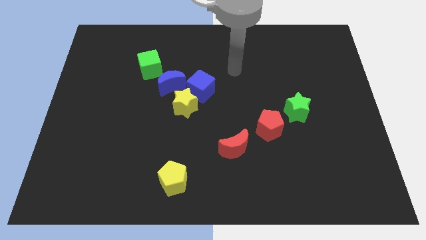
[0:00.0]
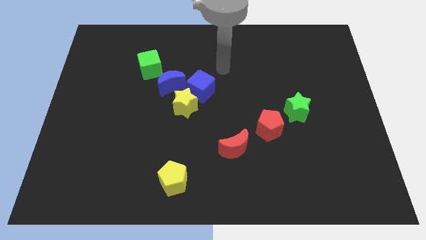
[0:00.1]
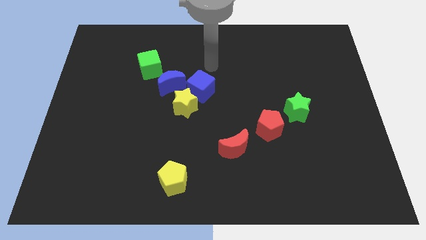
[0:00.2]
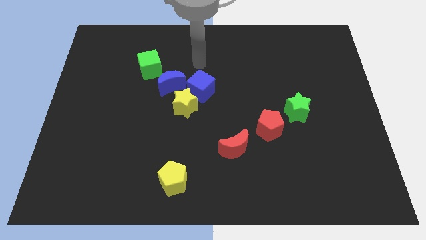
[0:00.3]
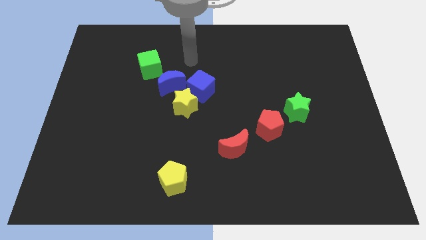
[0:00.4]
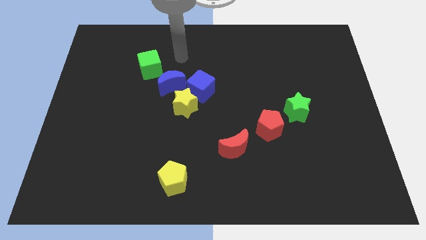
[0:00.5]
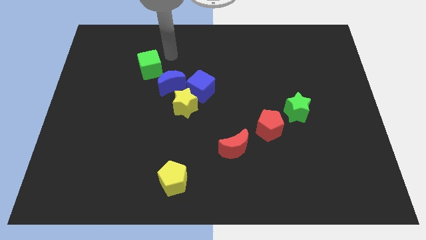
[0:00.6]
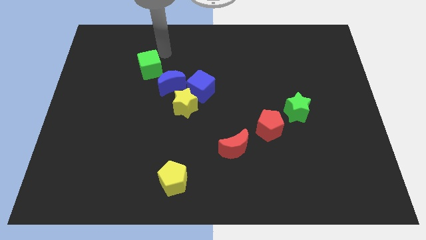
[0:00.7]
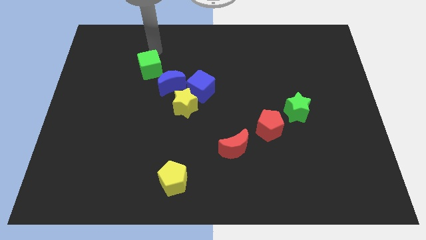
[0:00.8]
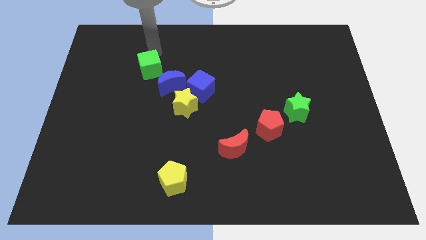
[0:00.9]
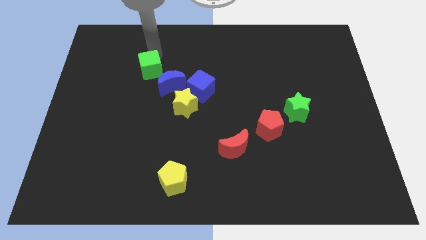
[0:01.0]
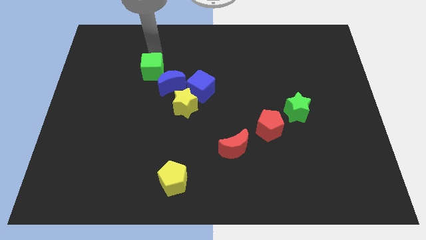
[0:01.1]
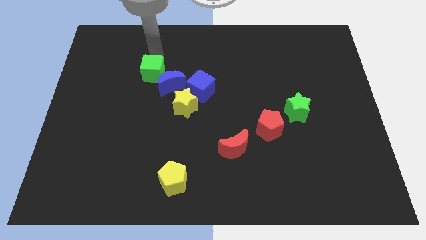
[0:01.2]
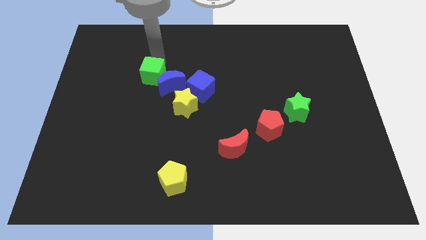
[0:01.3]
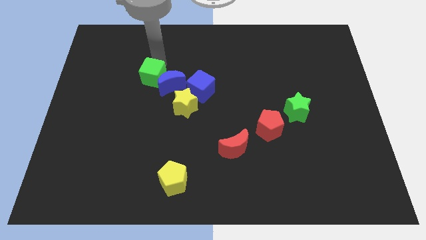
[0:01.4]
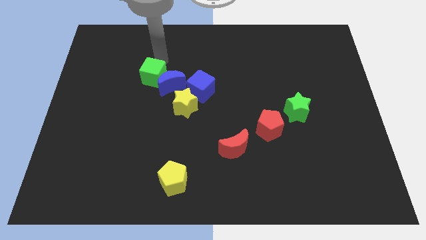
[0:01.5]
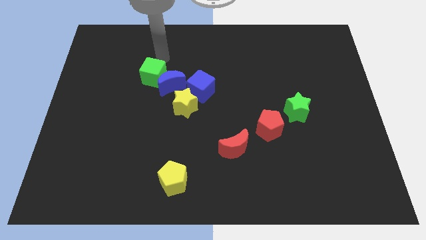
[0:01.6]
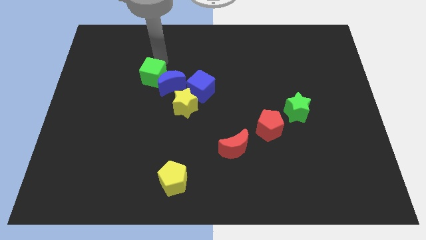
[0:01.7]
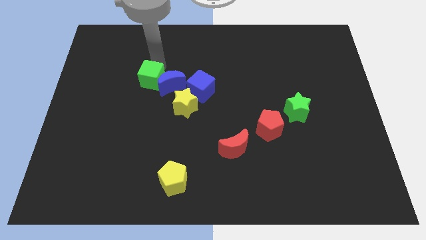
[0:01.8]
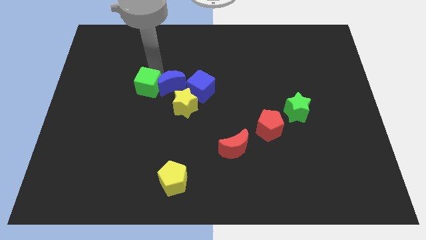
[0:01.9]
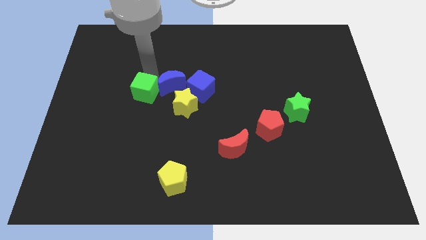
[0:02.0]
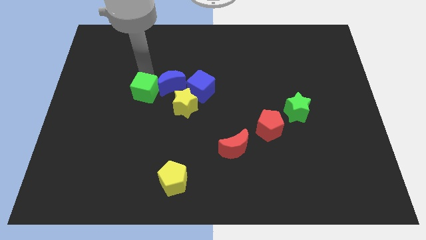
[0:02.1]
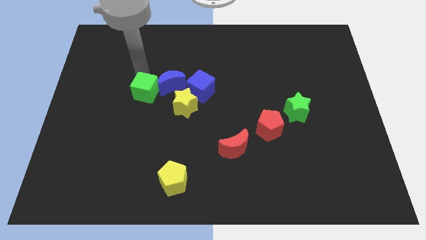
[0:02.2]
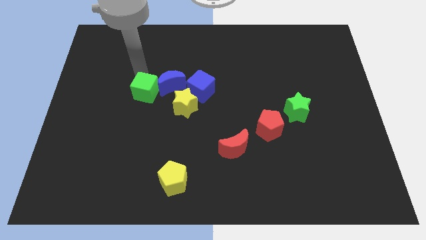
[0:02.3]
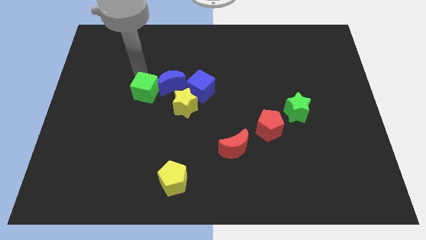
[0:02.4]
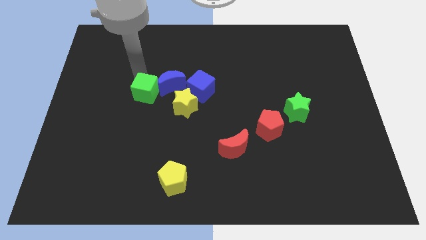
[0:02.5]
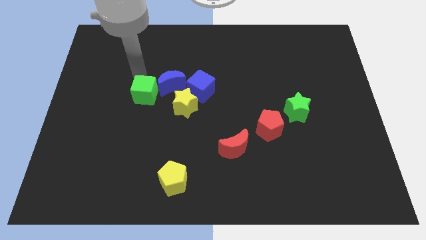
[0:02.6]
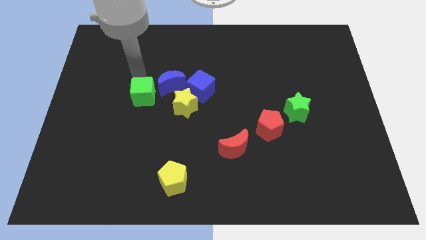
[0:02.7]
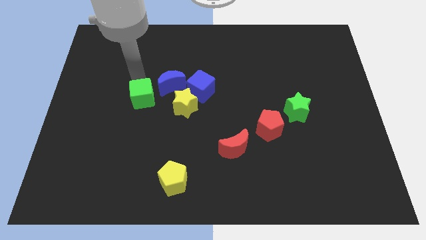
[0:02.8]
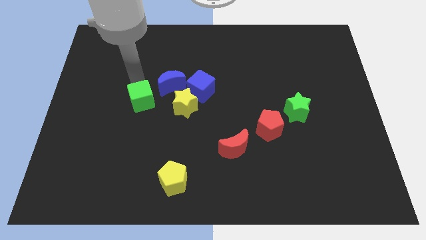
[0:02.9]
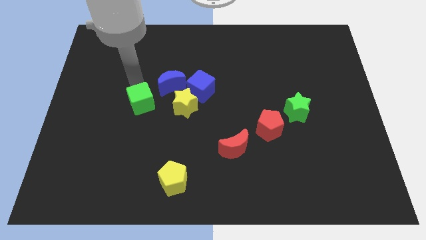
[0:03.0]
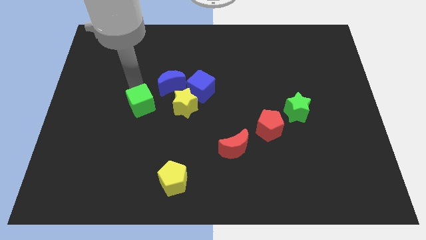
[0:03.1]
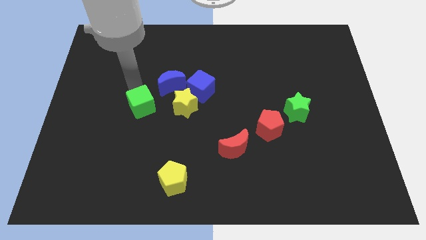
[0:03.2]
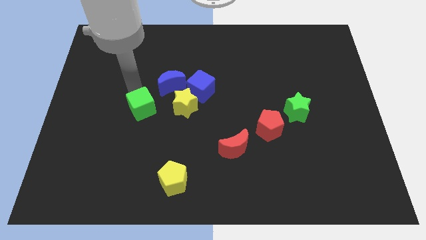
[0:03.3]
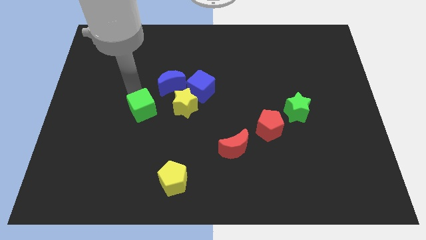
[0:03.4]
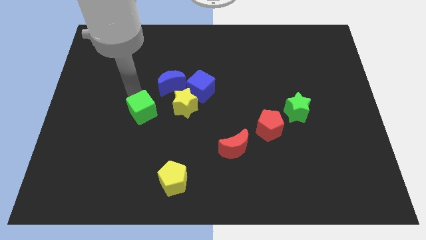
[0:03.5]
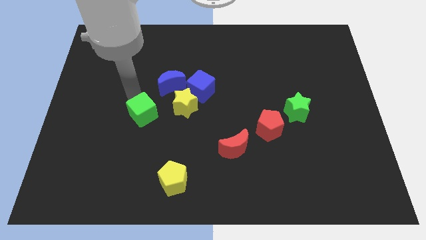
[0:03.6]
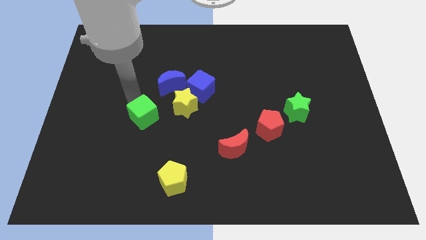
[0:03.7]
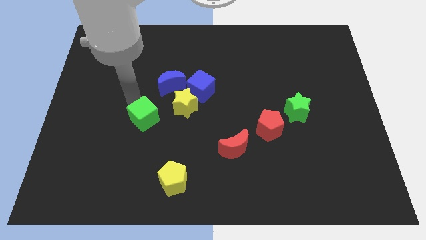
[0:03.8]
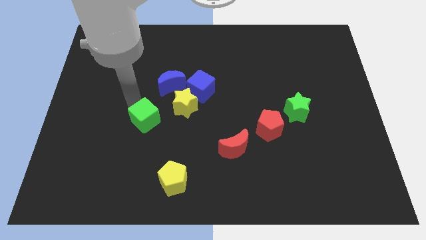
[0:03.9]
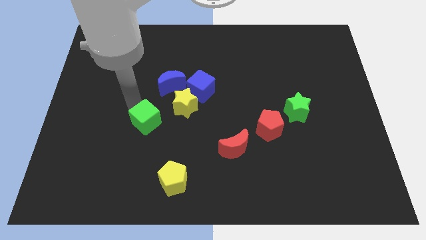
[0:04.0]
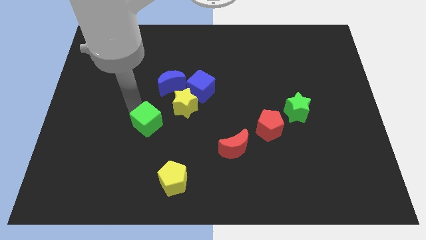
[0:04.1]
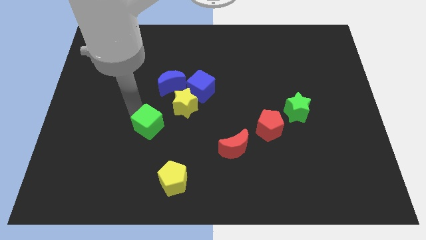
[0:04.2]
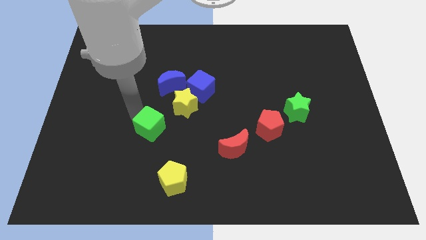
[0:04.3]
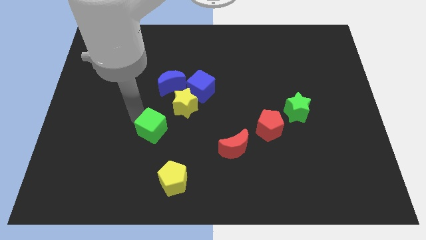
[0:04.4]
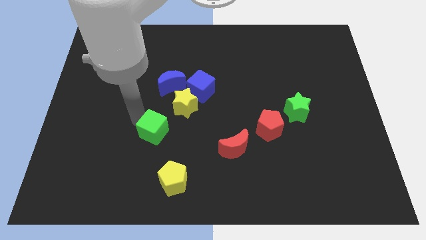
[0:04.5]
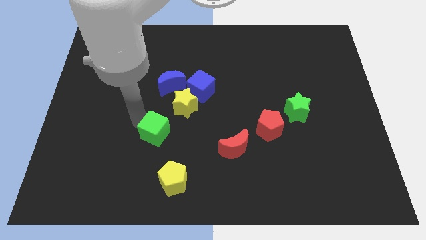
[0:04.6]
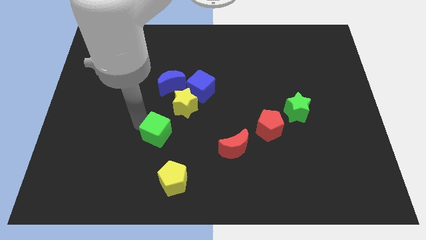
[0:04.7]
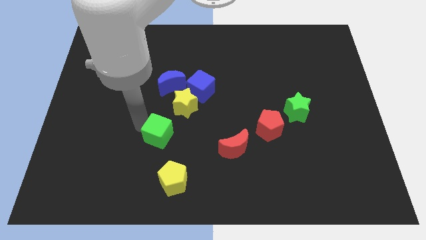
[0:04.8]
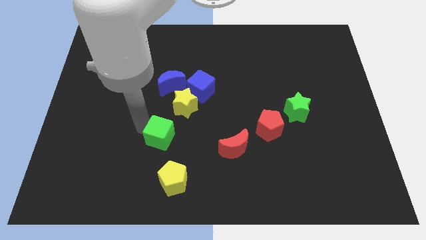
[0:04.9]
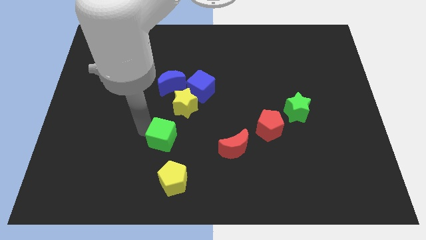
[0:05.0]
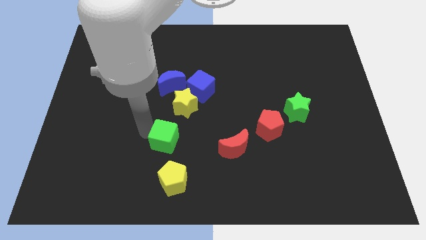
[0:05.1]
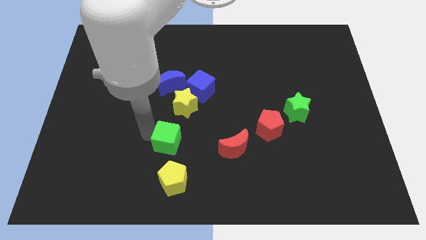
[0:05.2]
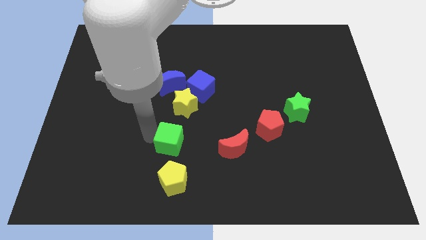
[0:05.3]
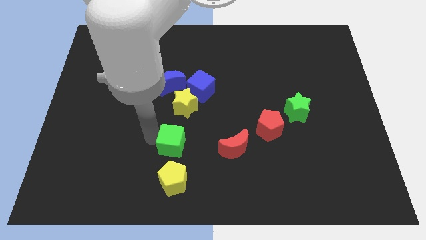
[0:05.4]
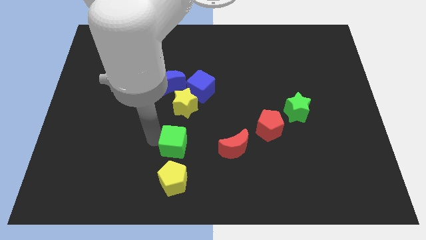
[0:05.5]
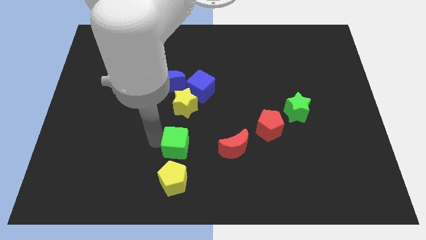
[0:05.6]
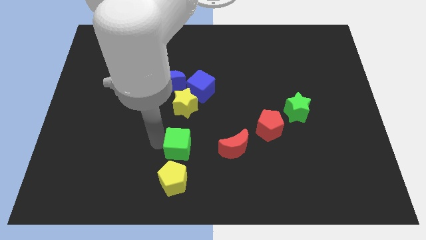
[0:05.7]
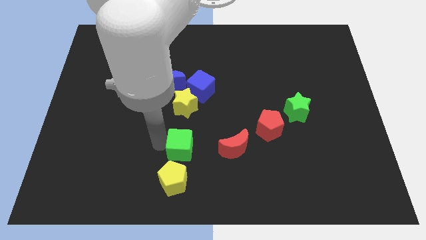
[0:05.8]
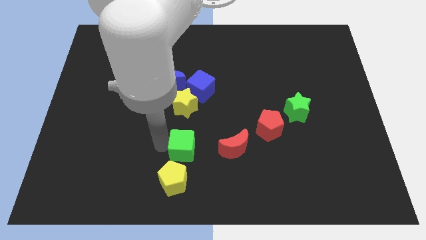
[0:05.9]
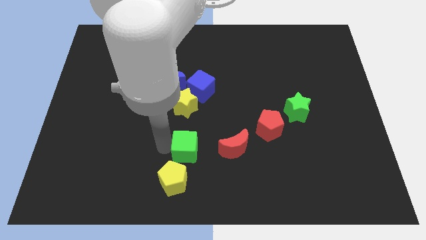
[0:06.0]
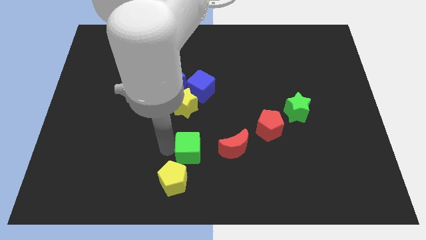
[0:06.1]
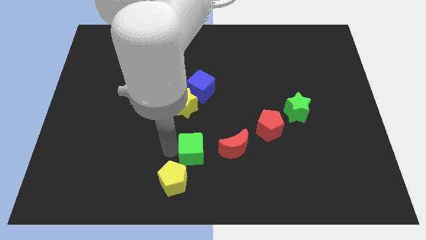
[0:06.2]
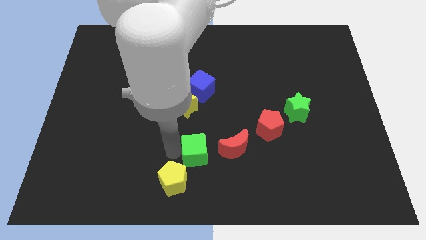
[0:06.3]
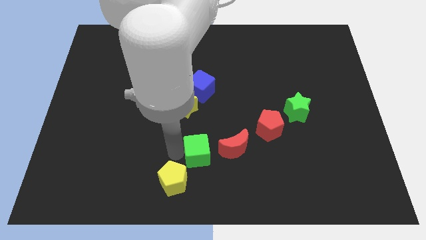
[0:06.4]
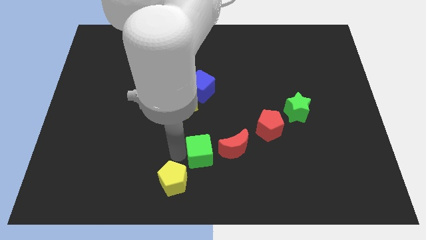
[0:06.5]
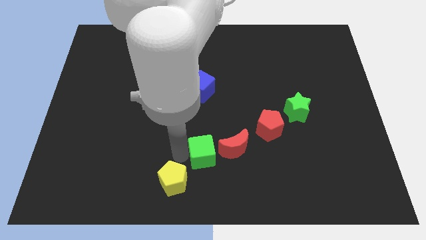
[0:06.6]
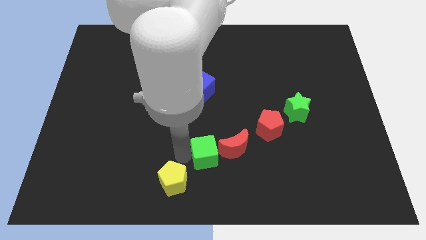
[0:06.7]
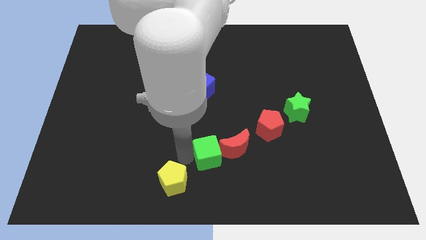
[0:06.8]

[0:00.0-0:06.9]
push the green cube close to the red moon
